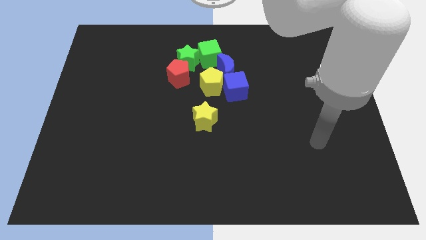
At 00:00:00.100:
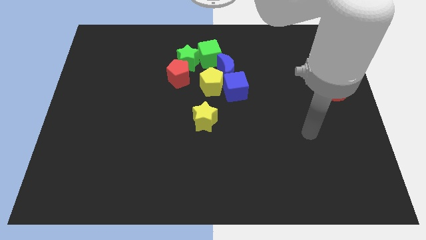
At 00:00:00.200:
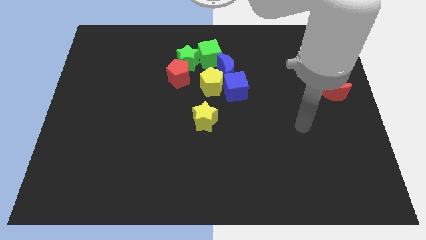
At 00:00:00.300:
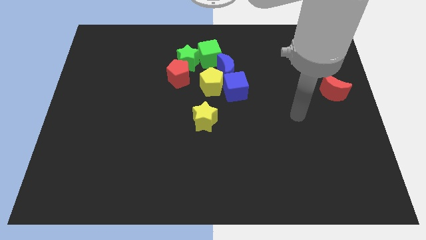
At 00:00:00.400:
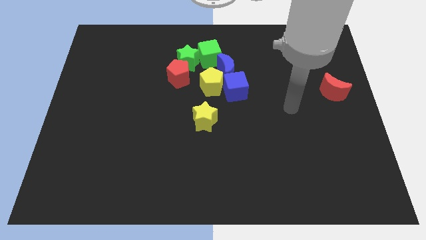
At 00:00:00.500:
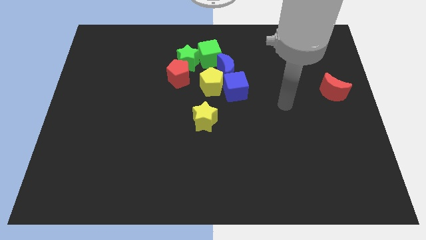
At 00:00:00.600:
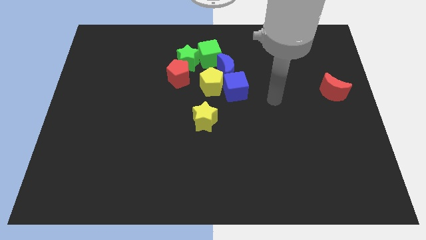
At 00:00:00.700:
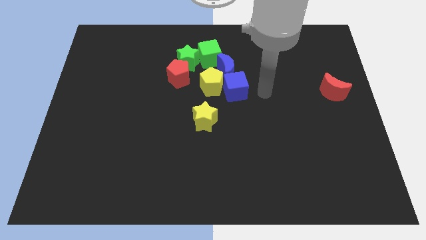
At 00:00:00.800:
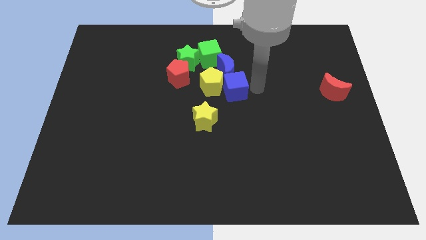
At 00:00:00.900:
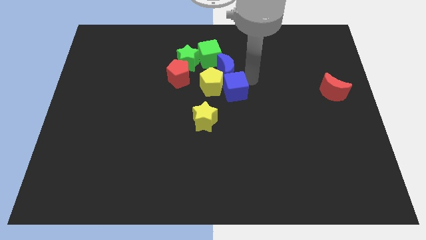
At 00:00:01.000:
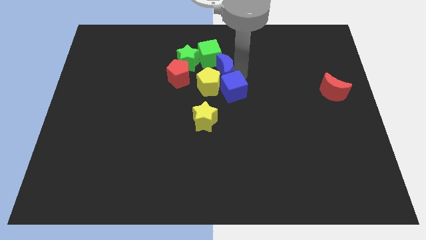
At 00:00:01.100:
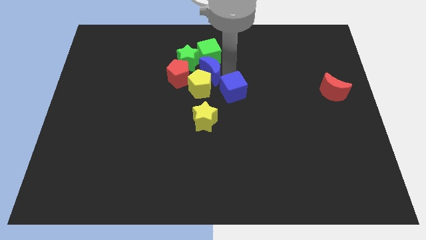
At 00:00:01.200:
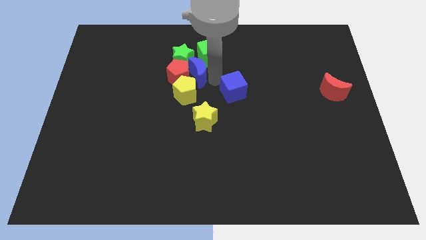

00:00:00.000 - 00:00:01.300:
pull the blue cube apart from the yellow pentagon and blue moon

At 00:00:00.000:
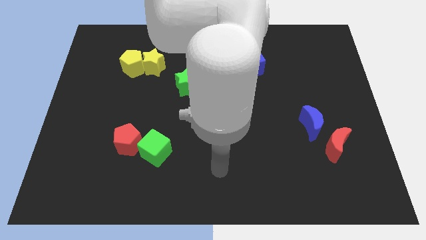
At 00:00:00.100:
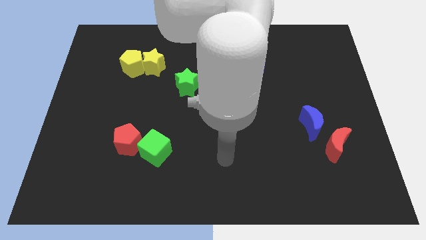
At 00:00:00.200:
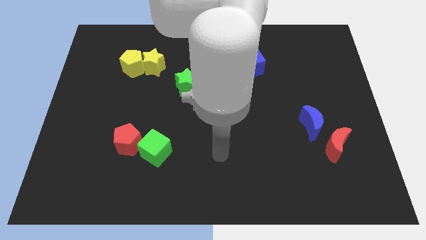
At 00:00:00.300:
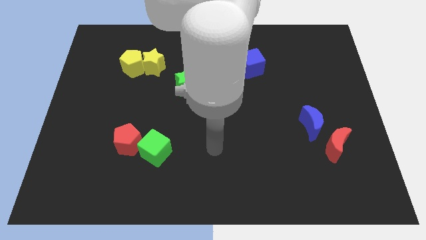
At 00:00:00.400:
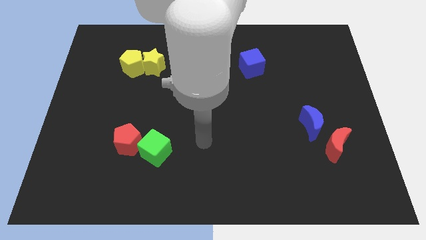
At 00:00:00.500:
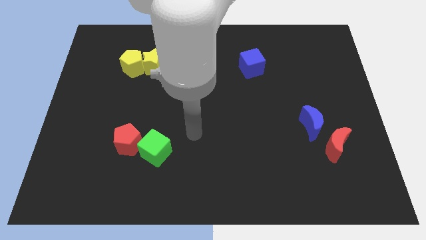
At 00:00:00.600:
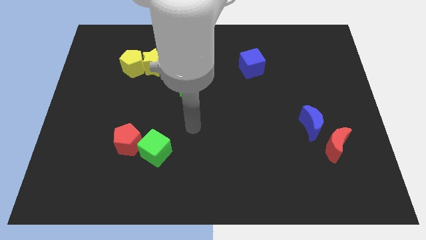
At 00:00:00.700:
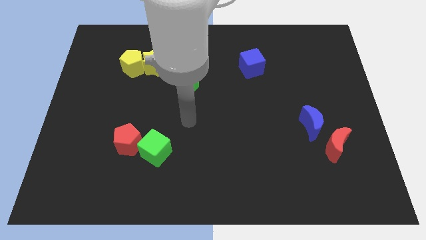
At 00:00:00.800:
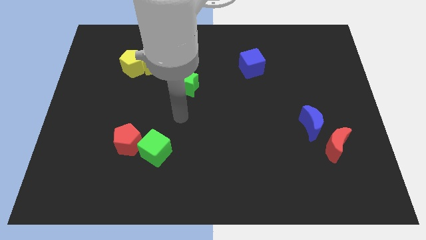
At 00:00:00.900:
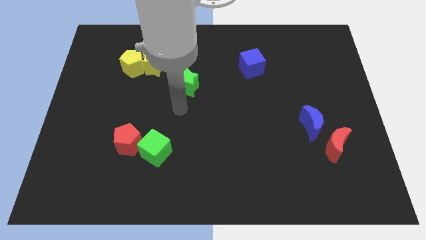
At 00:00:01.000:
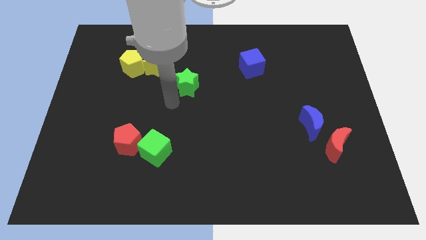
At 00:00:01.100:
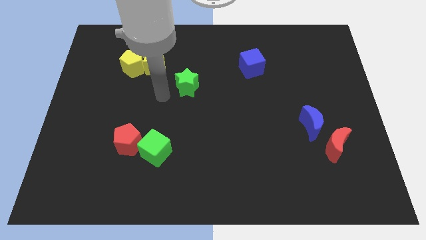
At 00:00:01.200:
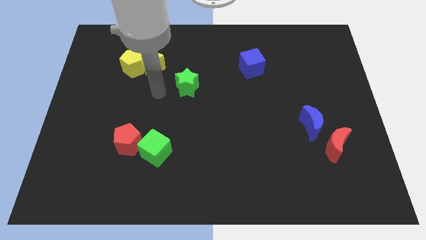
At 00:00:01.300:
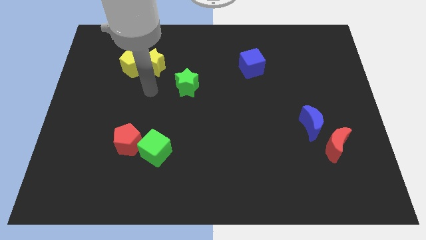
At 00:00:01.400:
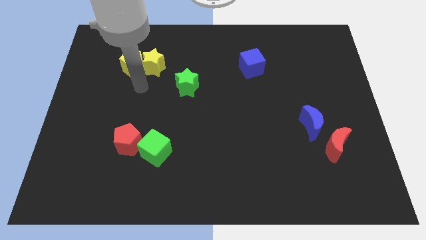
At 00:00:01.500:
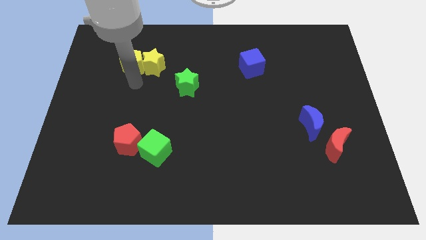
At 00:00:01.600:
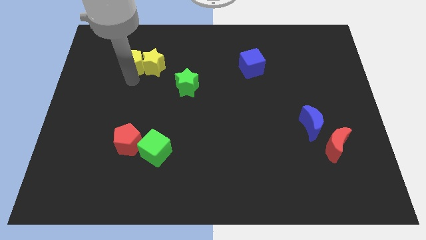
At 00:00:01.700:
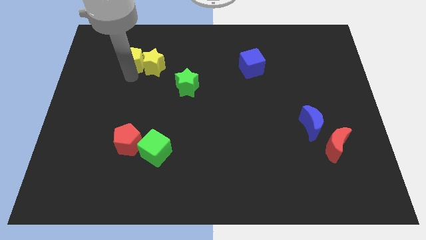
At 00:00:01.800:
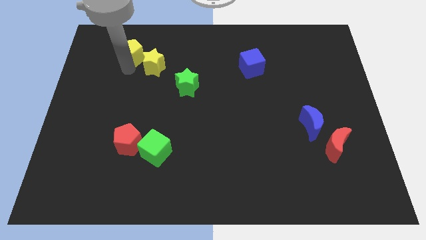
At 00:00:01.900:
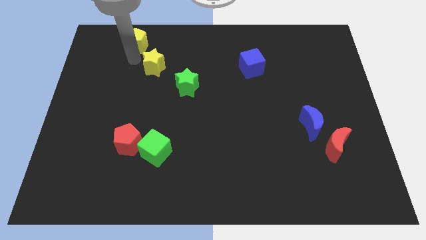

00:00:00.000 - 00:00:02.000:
move the yellow star away from the yellow pentagon

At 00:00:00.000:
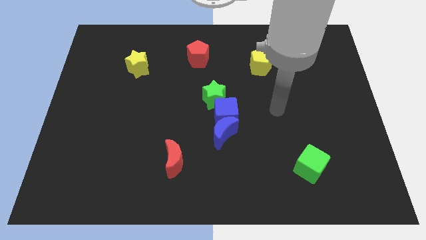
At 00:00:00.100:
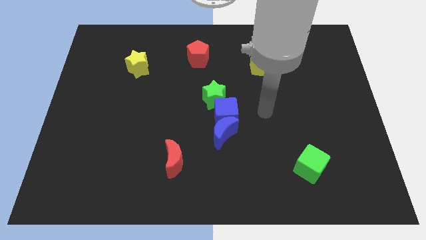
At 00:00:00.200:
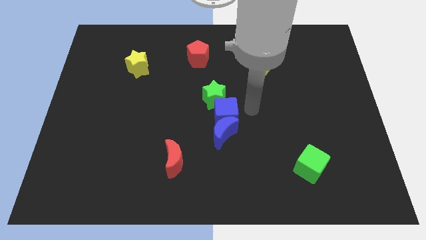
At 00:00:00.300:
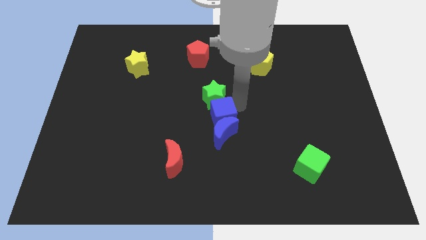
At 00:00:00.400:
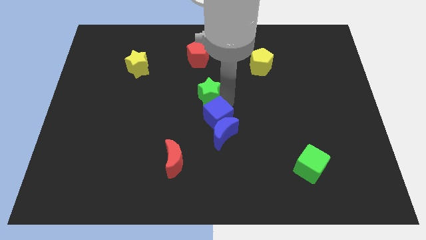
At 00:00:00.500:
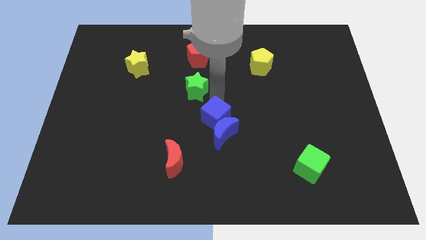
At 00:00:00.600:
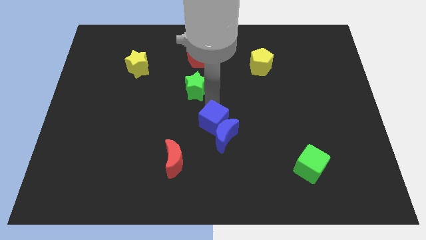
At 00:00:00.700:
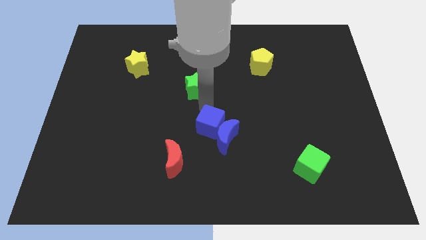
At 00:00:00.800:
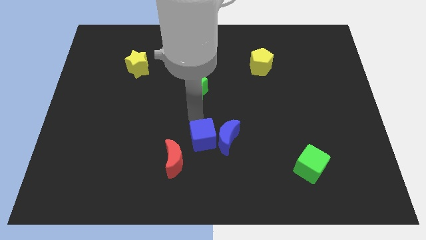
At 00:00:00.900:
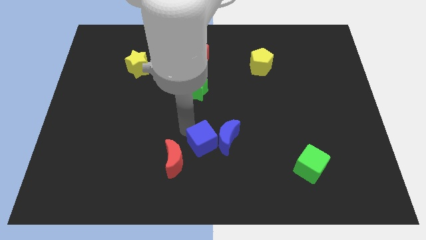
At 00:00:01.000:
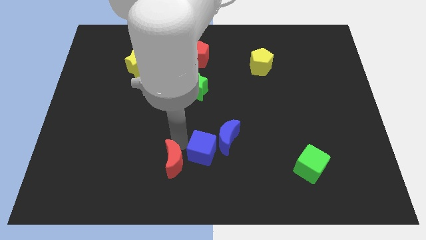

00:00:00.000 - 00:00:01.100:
move the blue cube away from the blue moon and green star

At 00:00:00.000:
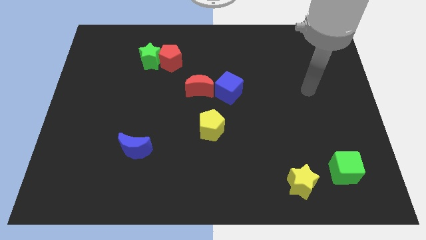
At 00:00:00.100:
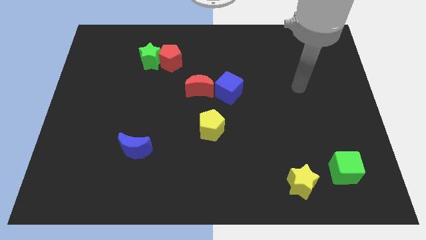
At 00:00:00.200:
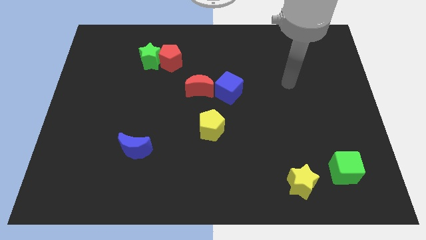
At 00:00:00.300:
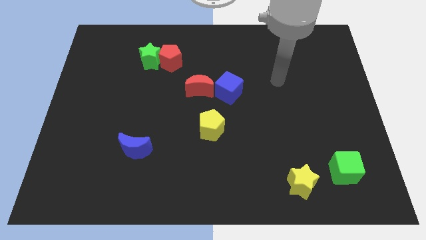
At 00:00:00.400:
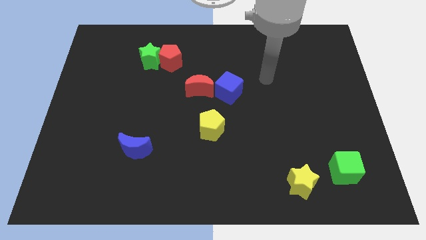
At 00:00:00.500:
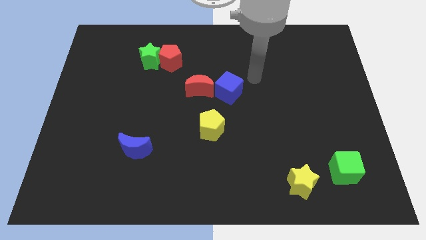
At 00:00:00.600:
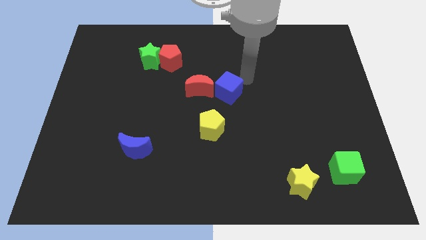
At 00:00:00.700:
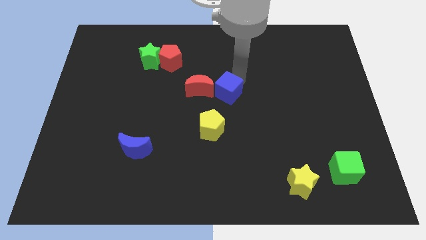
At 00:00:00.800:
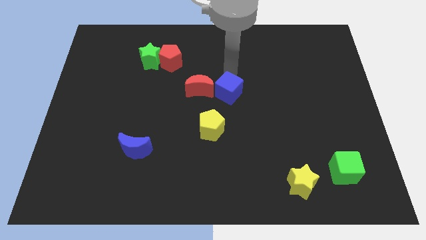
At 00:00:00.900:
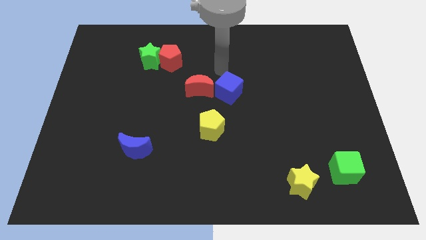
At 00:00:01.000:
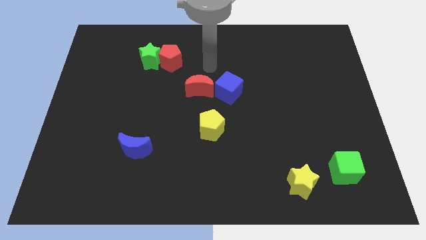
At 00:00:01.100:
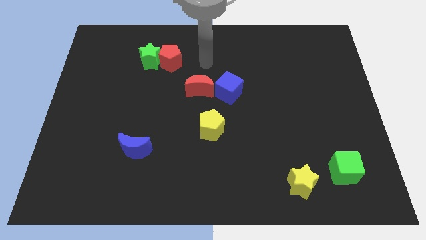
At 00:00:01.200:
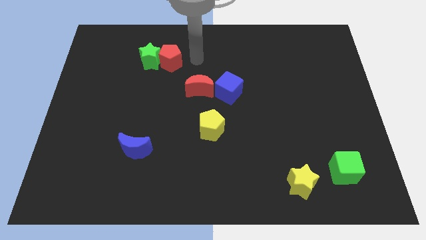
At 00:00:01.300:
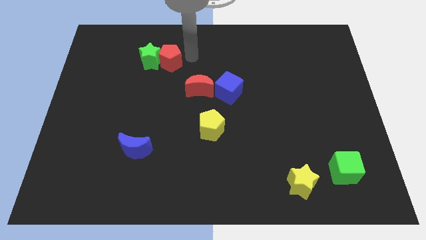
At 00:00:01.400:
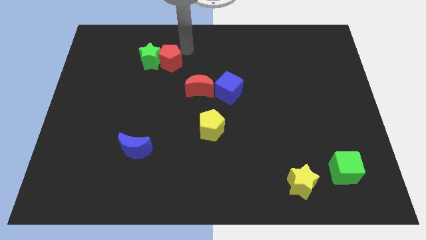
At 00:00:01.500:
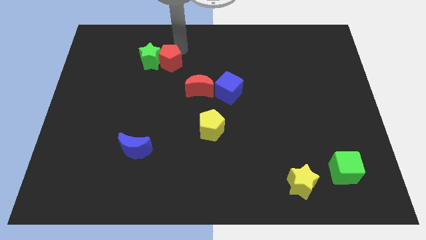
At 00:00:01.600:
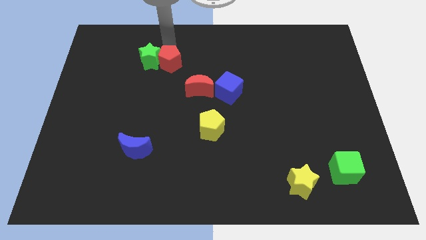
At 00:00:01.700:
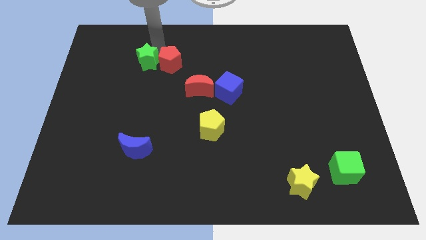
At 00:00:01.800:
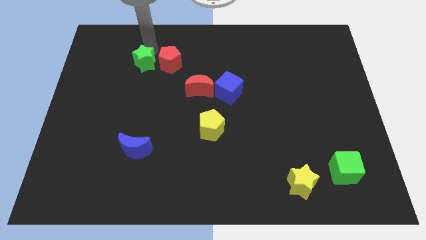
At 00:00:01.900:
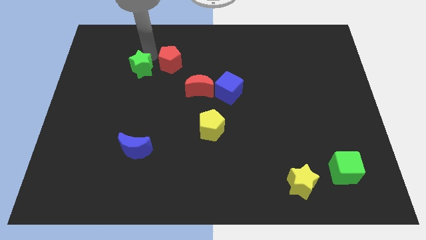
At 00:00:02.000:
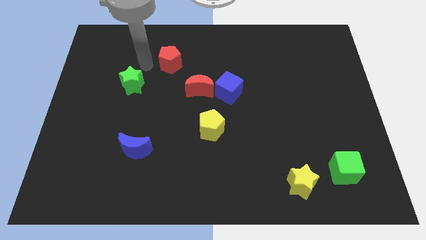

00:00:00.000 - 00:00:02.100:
separate the red pentagon from the green star

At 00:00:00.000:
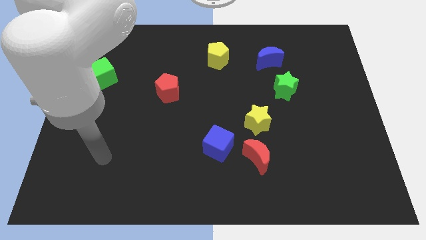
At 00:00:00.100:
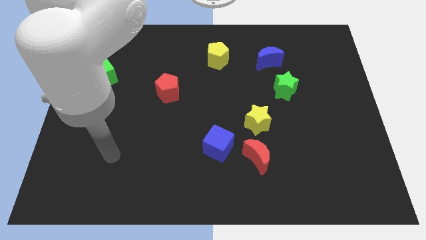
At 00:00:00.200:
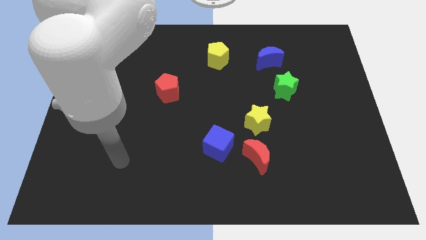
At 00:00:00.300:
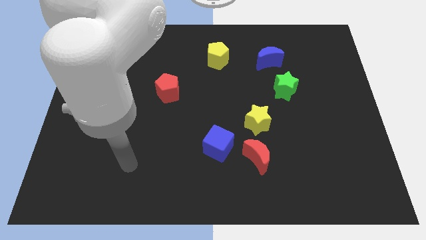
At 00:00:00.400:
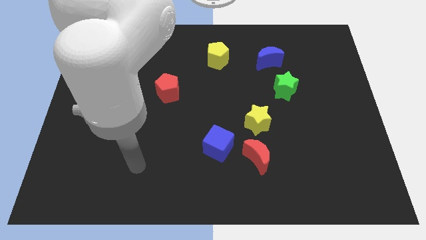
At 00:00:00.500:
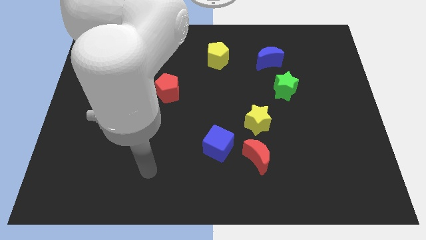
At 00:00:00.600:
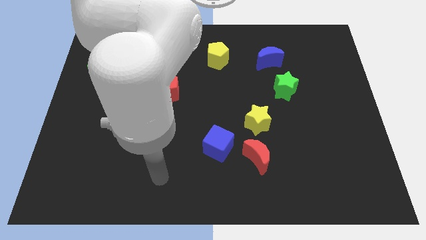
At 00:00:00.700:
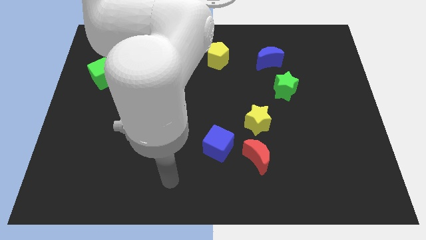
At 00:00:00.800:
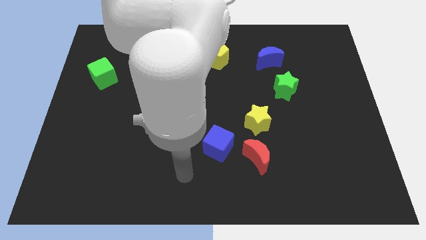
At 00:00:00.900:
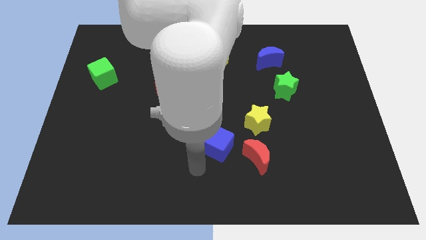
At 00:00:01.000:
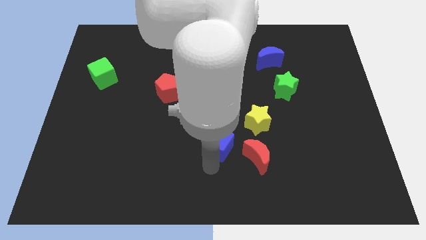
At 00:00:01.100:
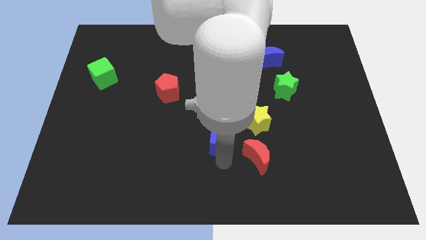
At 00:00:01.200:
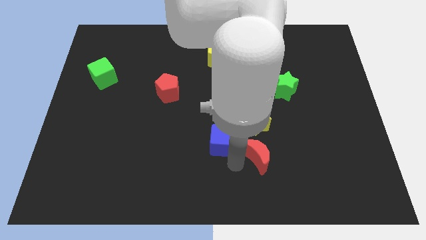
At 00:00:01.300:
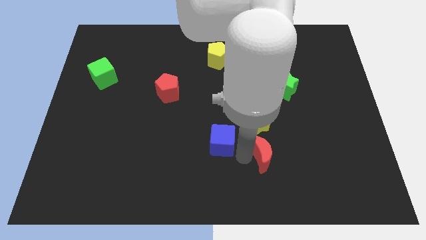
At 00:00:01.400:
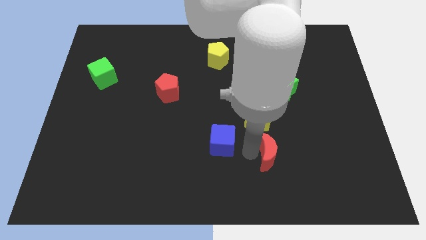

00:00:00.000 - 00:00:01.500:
move the blue cube away from the red moon

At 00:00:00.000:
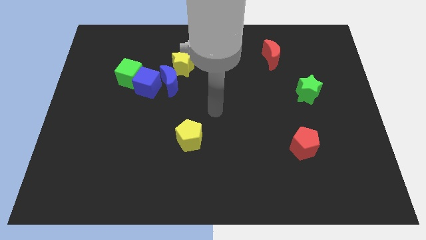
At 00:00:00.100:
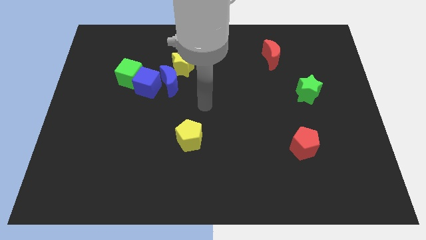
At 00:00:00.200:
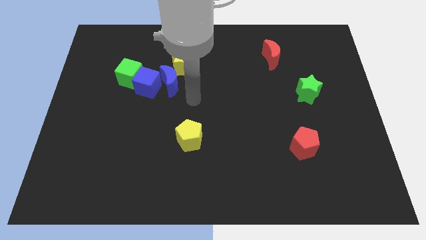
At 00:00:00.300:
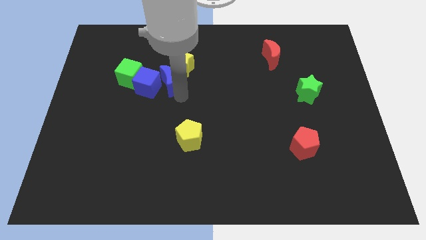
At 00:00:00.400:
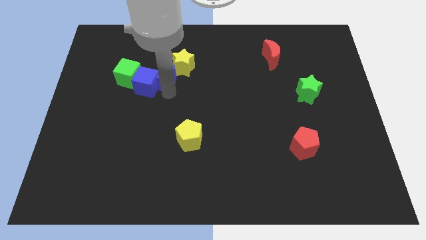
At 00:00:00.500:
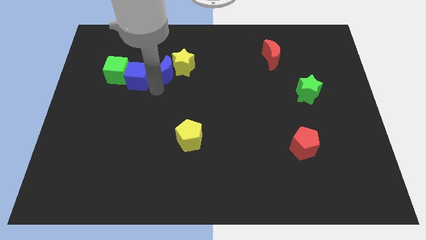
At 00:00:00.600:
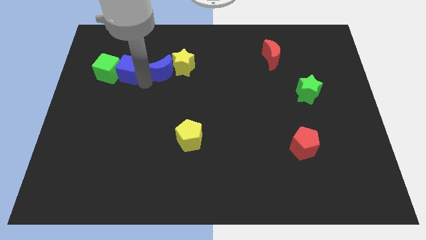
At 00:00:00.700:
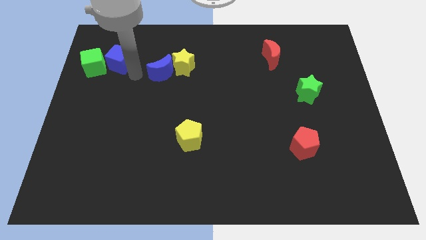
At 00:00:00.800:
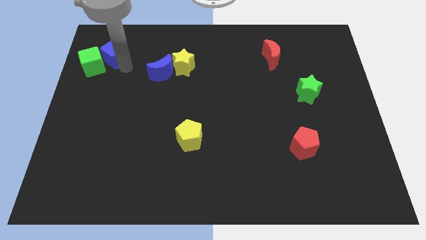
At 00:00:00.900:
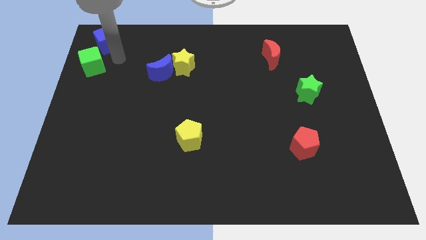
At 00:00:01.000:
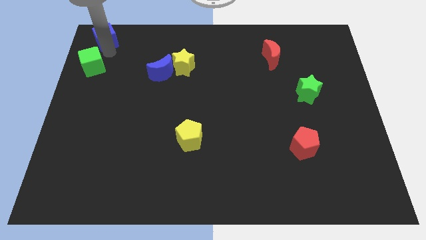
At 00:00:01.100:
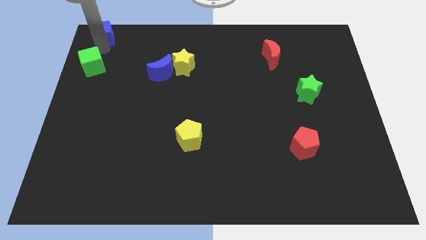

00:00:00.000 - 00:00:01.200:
move the green cube away from the blue cube

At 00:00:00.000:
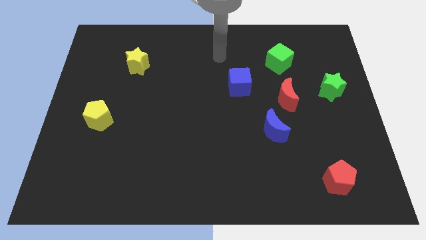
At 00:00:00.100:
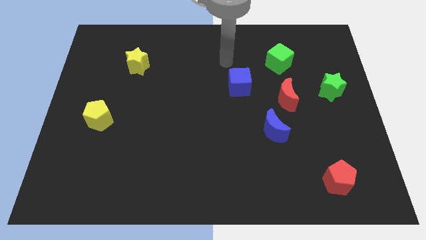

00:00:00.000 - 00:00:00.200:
pull the red moon apart from the blue moon
